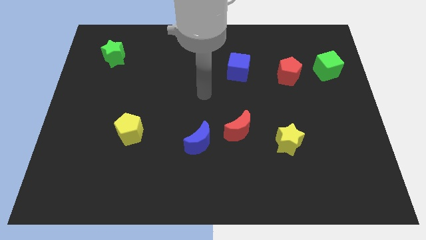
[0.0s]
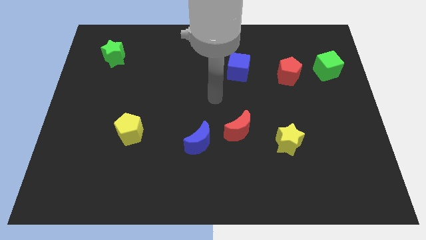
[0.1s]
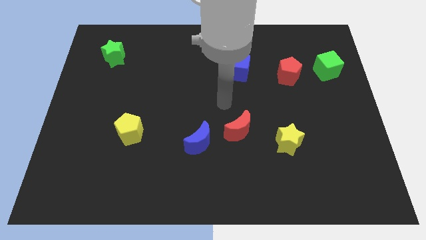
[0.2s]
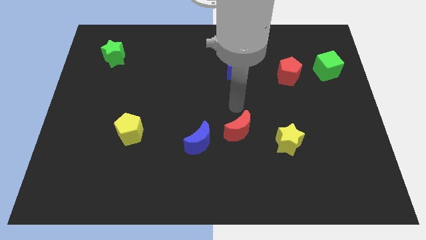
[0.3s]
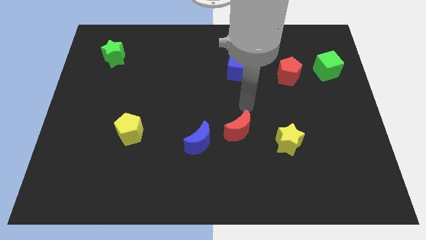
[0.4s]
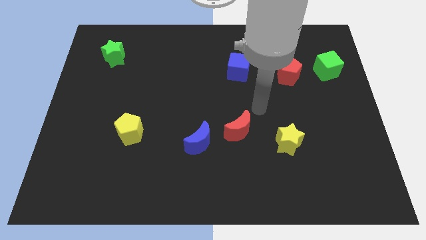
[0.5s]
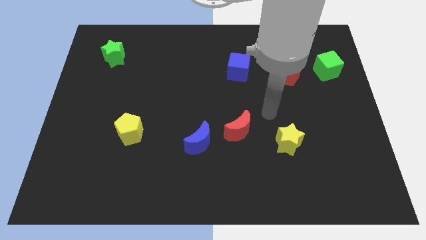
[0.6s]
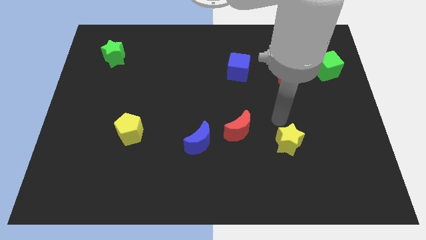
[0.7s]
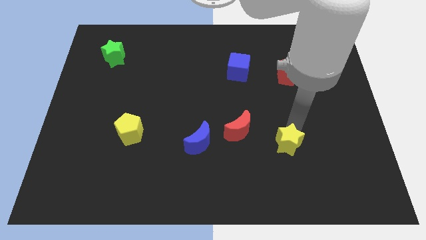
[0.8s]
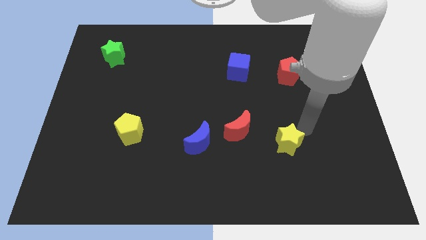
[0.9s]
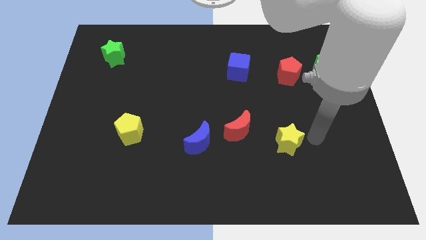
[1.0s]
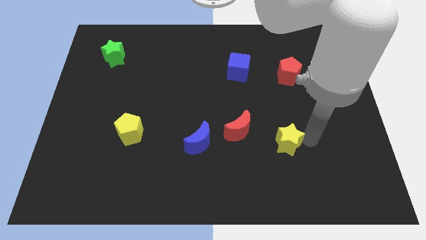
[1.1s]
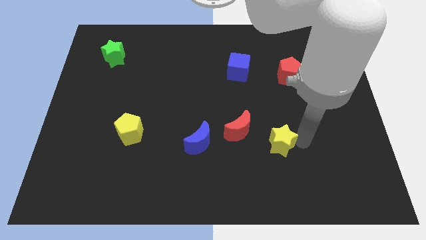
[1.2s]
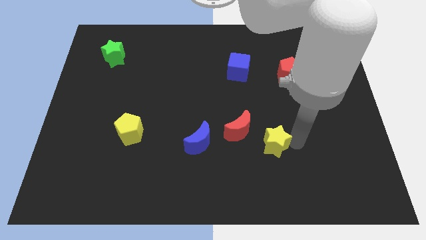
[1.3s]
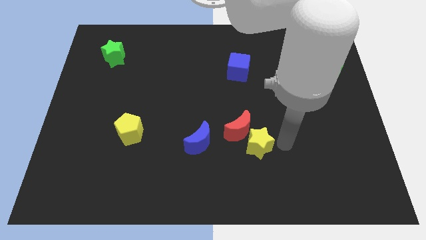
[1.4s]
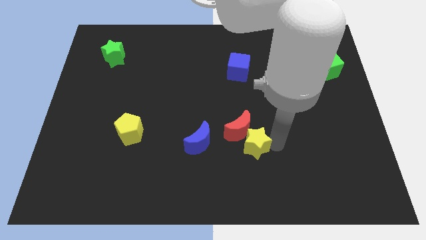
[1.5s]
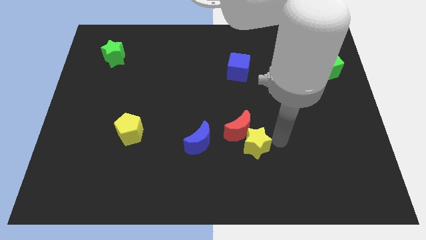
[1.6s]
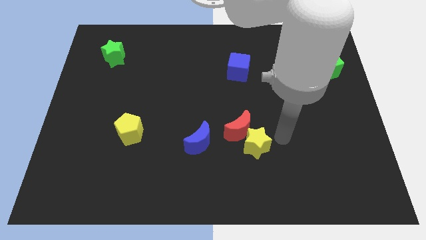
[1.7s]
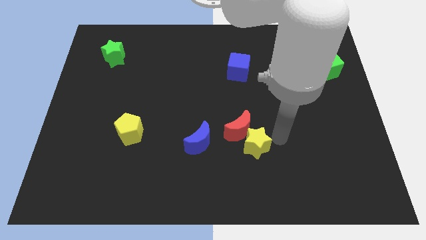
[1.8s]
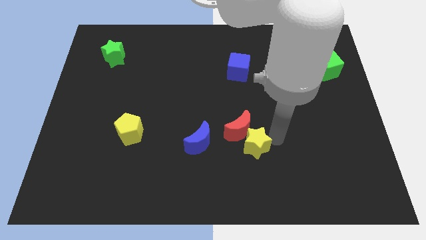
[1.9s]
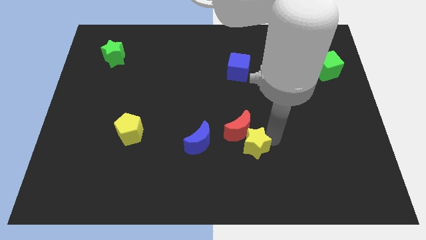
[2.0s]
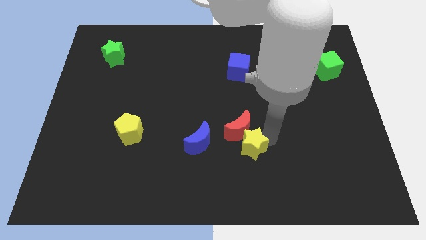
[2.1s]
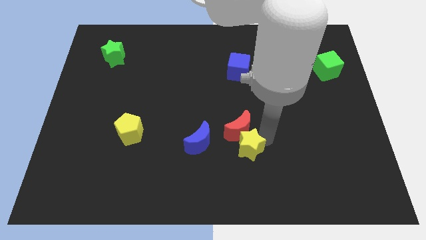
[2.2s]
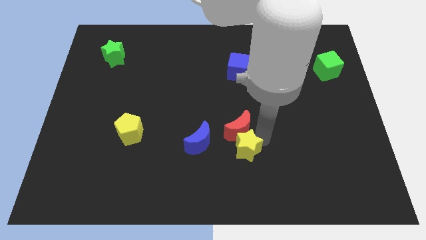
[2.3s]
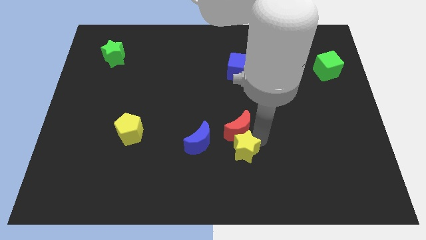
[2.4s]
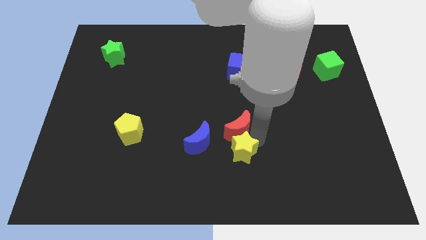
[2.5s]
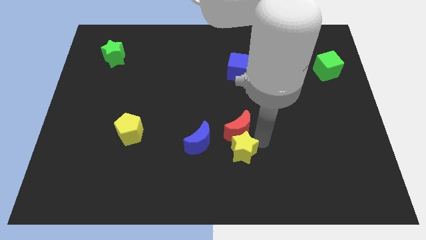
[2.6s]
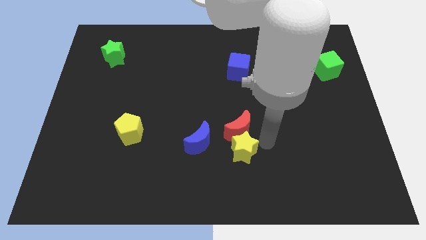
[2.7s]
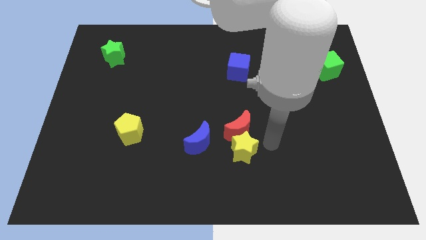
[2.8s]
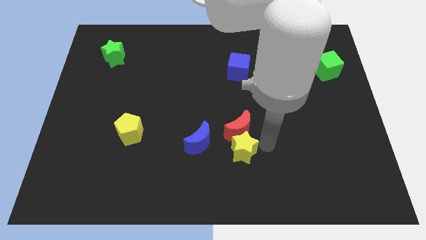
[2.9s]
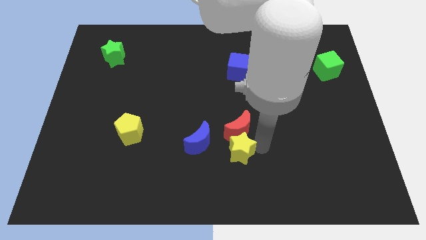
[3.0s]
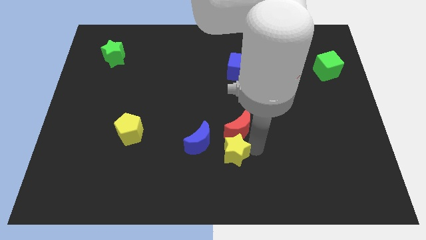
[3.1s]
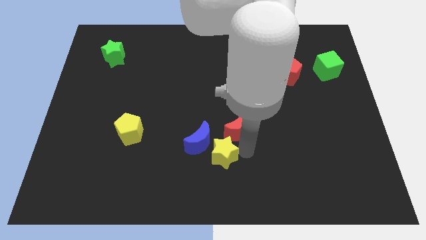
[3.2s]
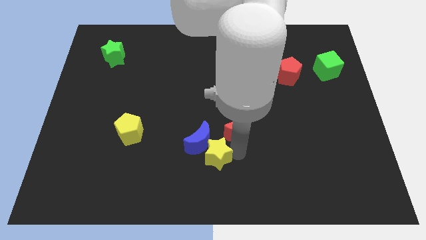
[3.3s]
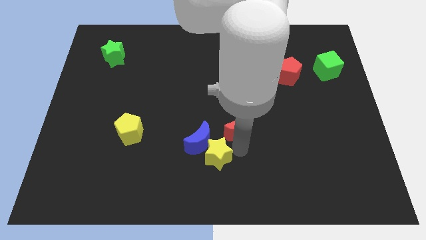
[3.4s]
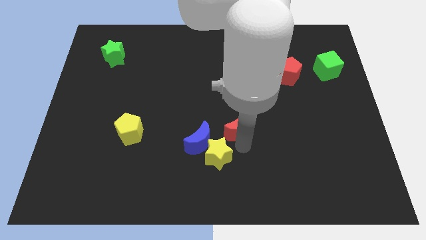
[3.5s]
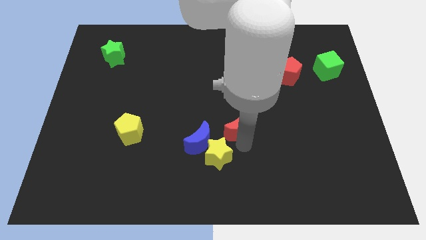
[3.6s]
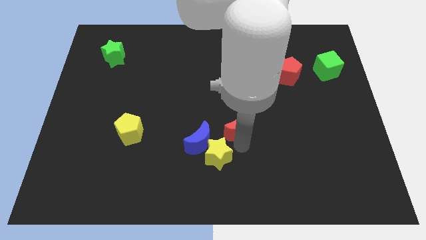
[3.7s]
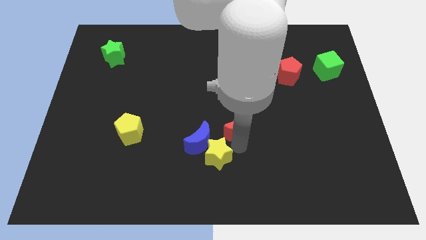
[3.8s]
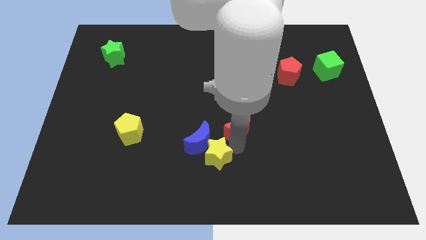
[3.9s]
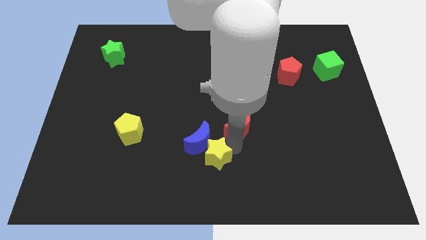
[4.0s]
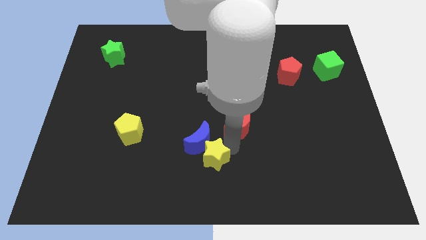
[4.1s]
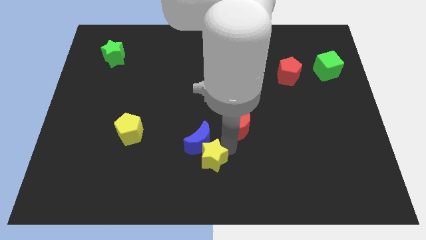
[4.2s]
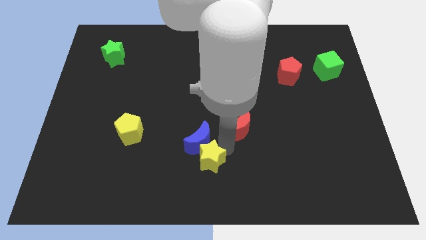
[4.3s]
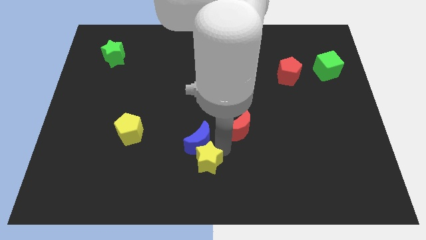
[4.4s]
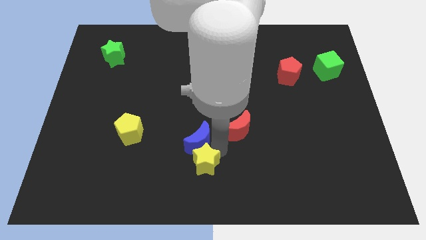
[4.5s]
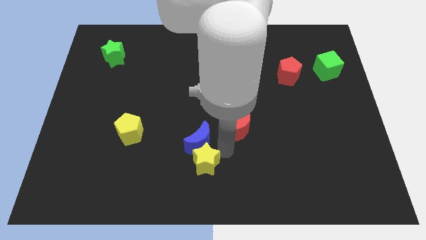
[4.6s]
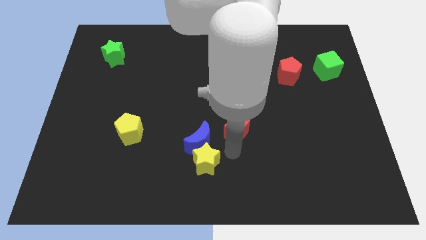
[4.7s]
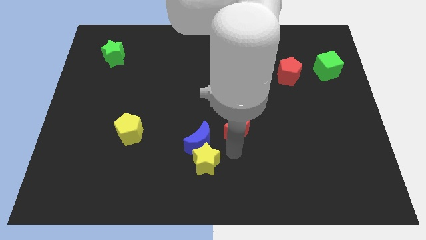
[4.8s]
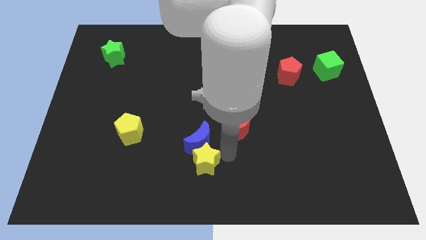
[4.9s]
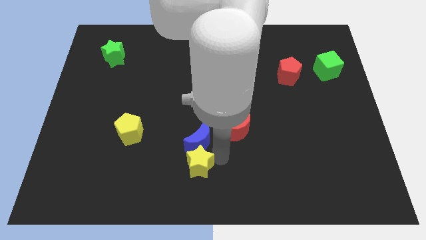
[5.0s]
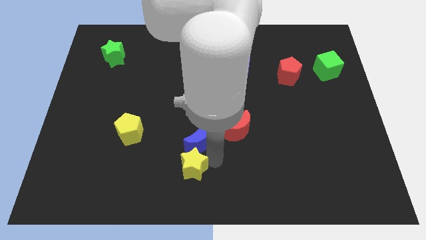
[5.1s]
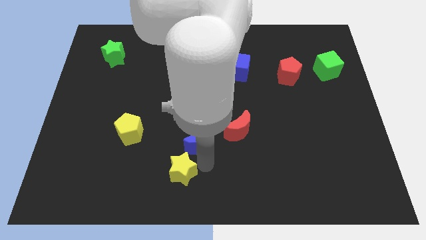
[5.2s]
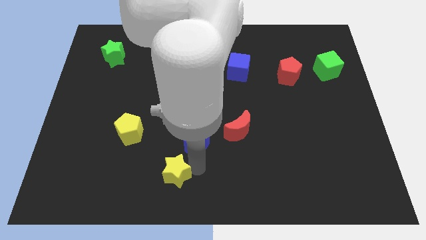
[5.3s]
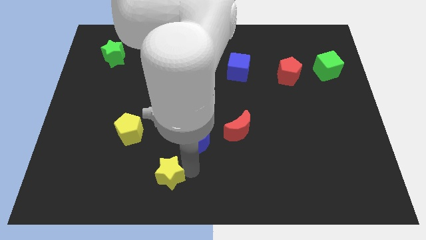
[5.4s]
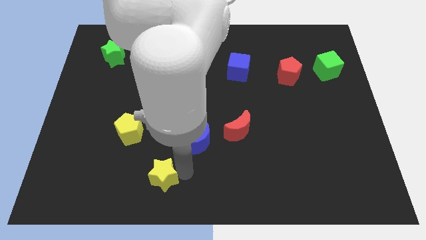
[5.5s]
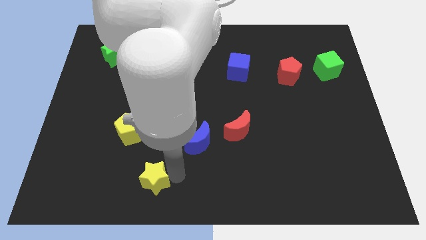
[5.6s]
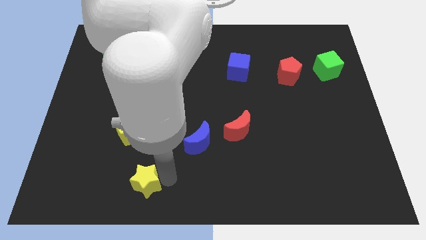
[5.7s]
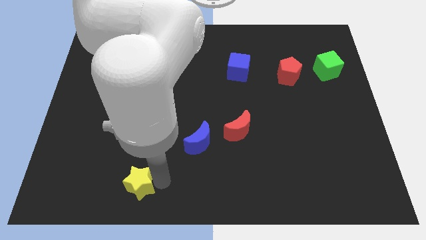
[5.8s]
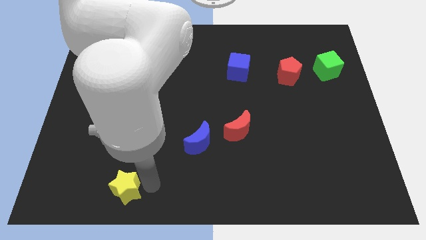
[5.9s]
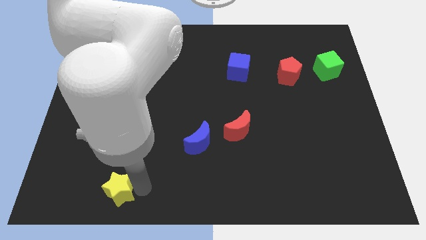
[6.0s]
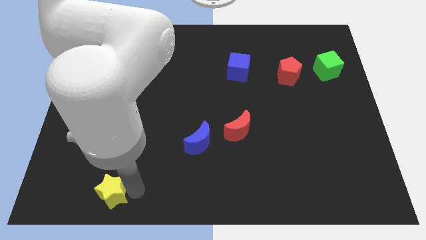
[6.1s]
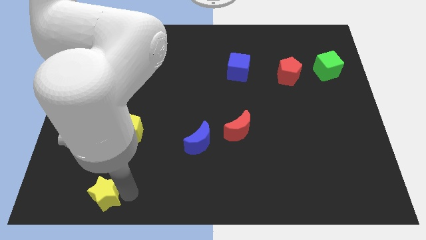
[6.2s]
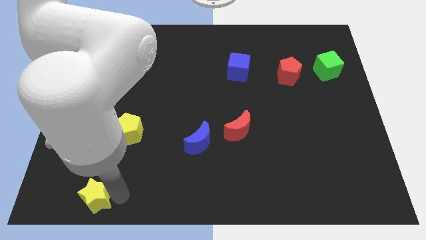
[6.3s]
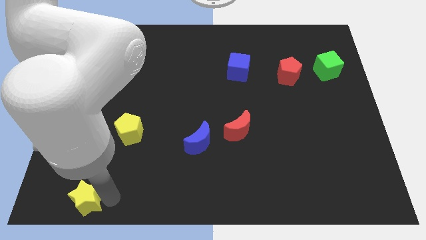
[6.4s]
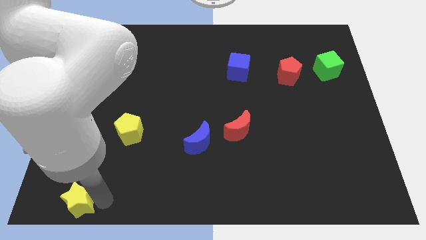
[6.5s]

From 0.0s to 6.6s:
put the yellow star to the bottom left

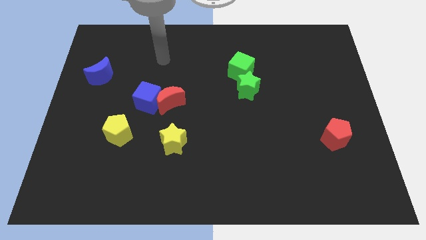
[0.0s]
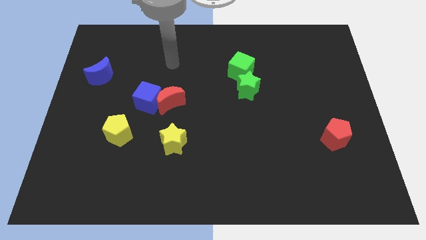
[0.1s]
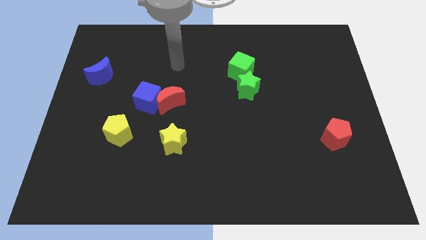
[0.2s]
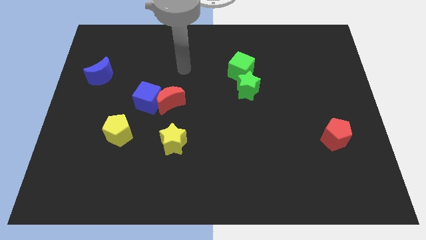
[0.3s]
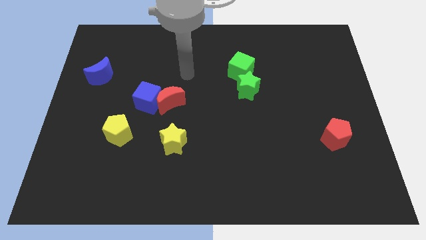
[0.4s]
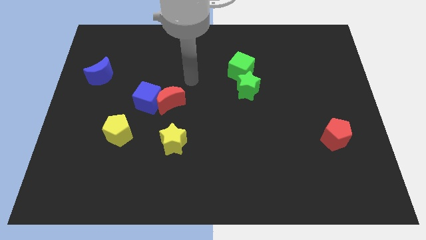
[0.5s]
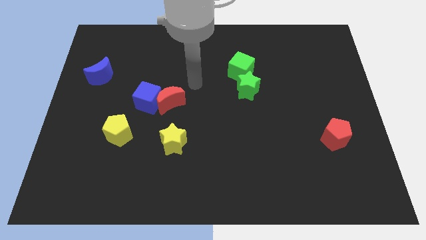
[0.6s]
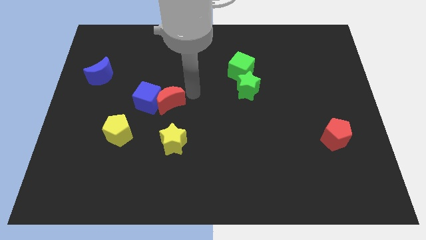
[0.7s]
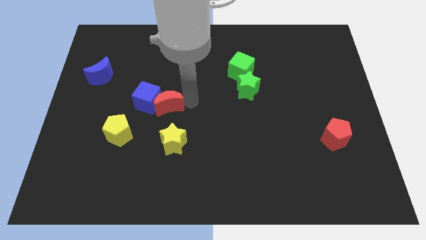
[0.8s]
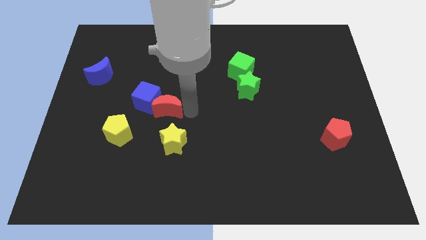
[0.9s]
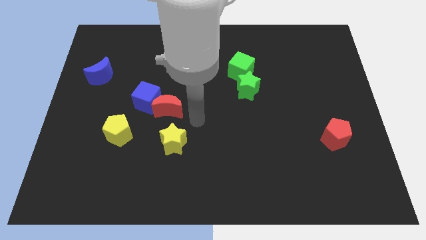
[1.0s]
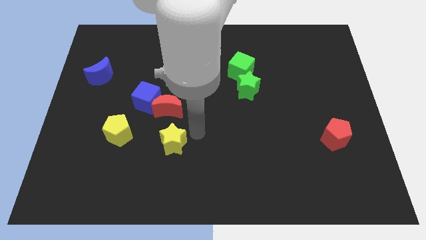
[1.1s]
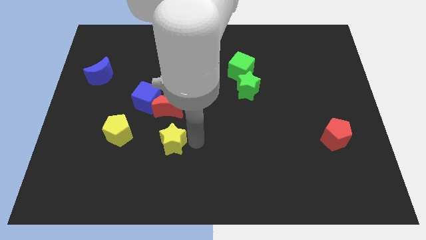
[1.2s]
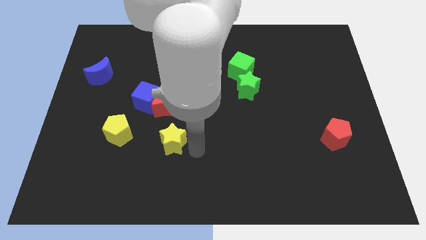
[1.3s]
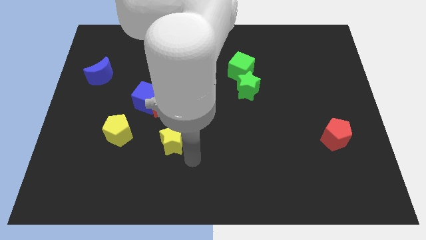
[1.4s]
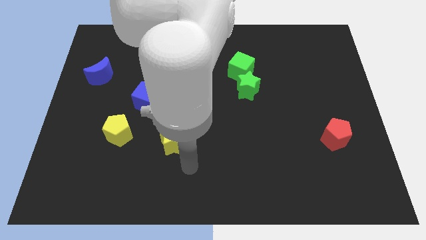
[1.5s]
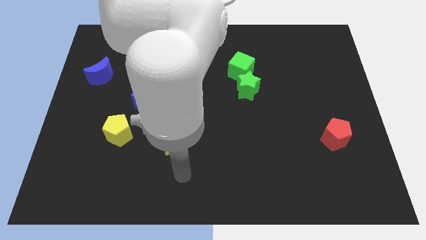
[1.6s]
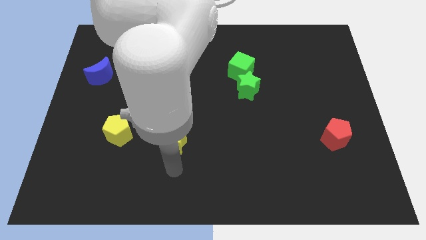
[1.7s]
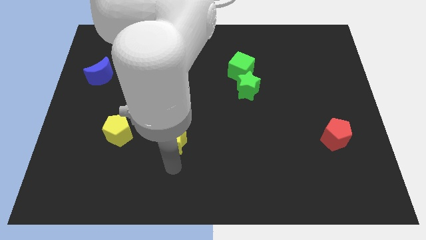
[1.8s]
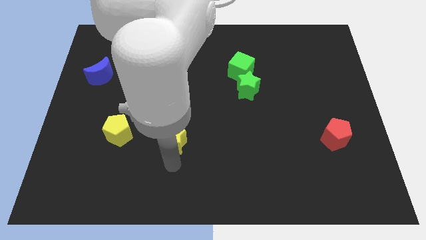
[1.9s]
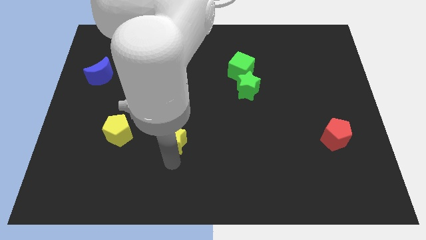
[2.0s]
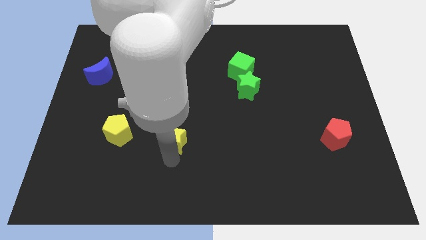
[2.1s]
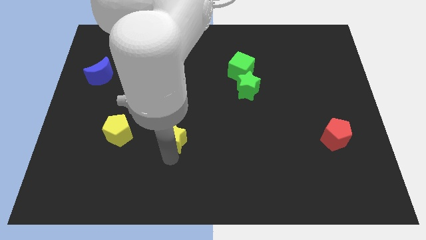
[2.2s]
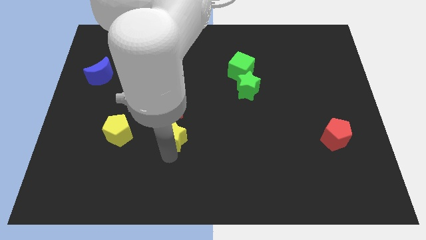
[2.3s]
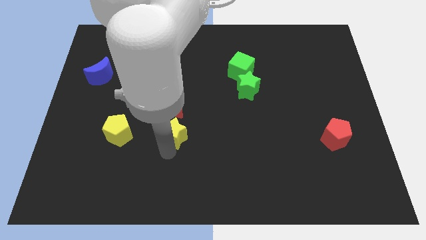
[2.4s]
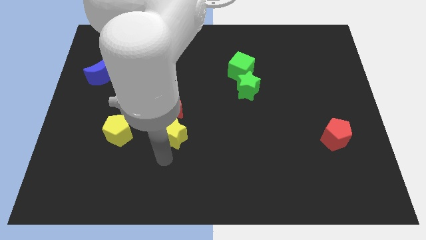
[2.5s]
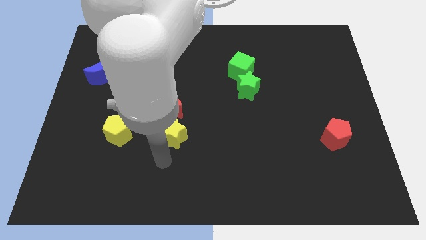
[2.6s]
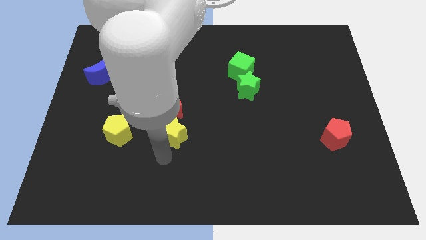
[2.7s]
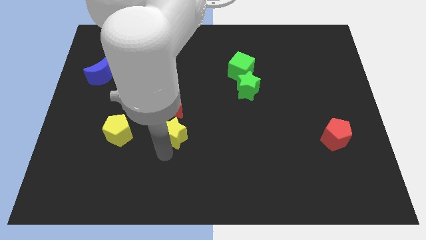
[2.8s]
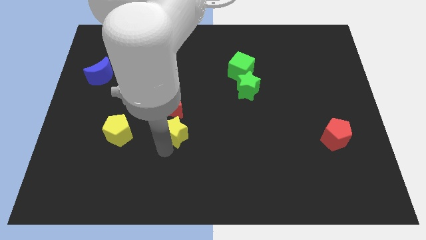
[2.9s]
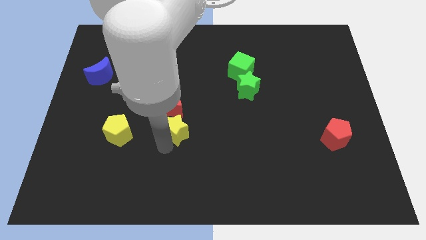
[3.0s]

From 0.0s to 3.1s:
slide the yellow star to the middle
